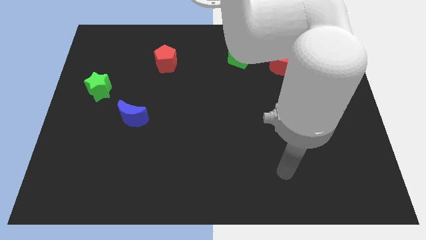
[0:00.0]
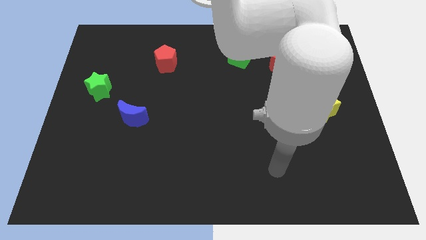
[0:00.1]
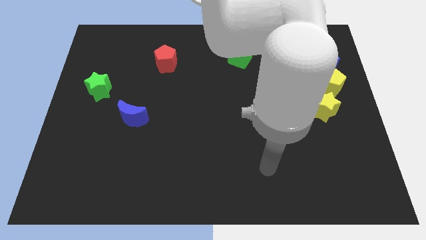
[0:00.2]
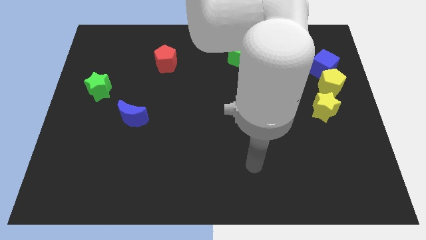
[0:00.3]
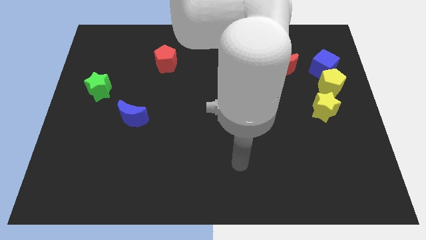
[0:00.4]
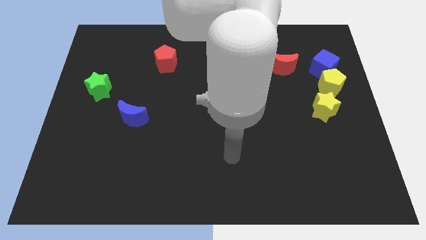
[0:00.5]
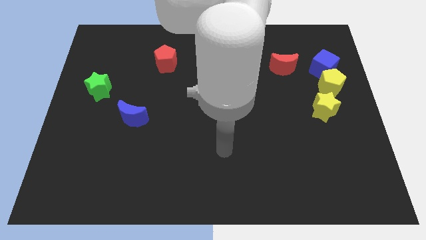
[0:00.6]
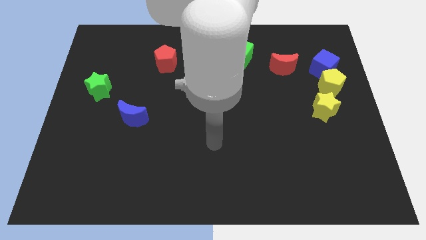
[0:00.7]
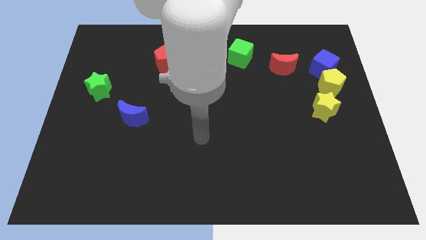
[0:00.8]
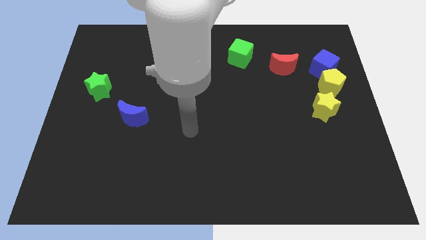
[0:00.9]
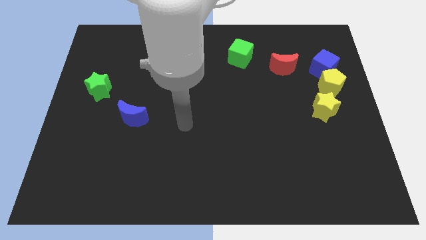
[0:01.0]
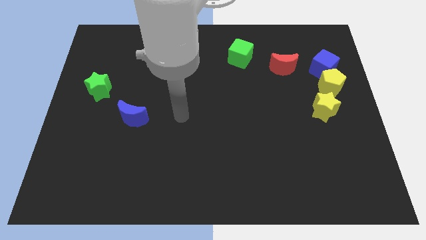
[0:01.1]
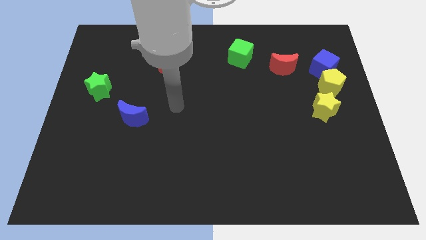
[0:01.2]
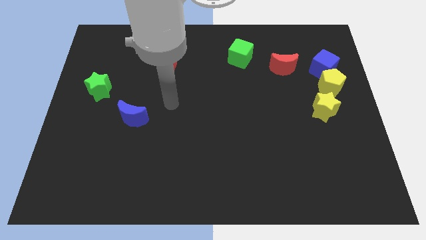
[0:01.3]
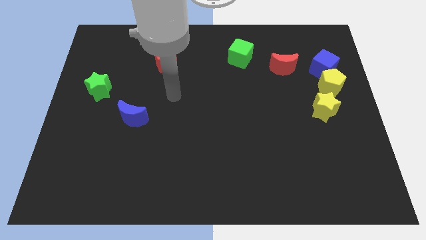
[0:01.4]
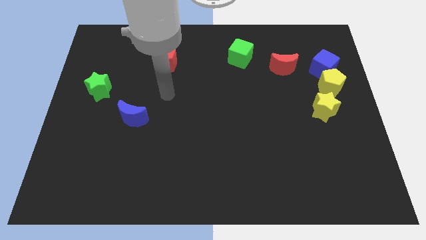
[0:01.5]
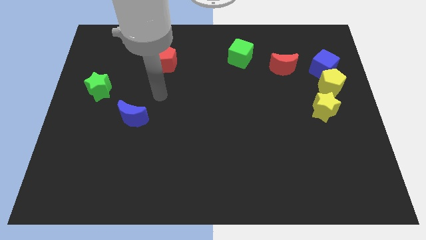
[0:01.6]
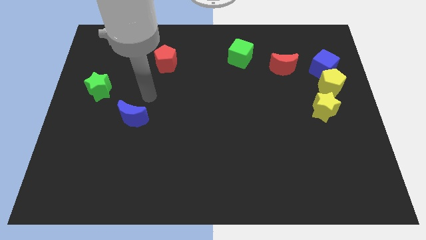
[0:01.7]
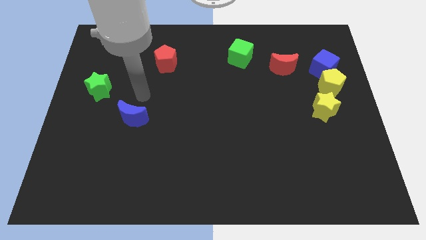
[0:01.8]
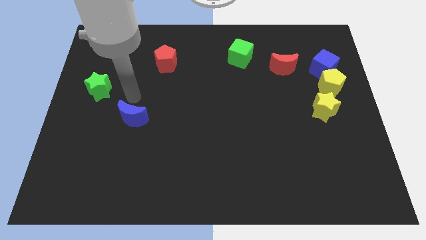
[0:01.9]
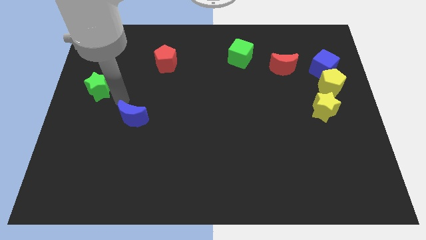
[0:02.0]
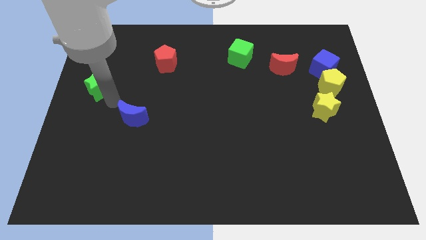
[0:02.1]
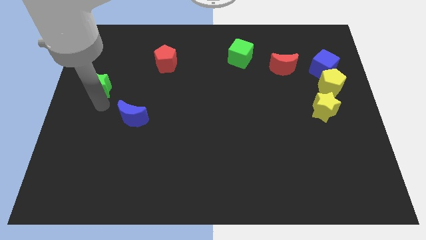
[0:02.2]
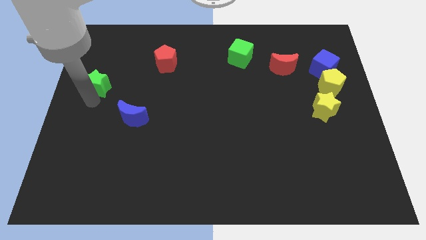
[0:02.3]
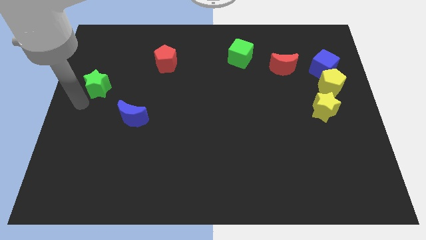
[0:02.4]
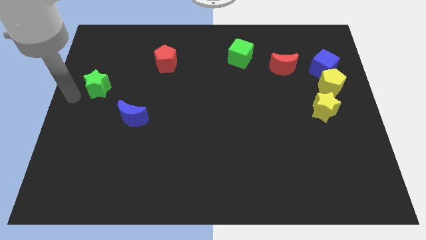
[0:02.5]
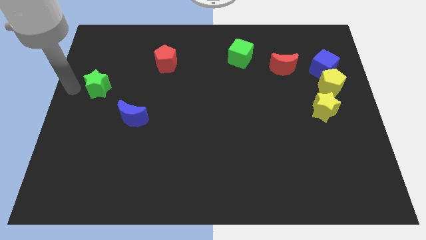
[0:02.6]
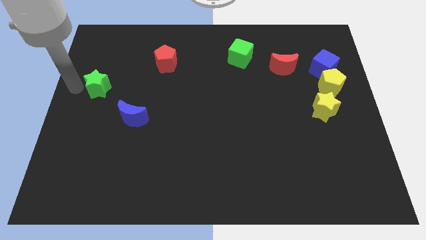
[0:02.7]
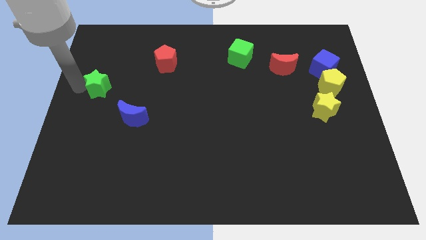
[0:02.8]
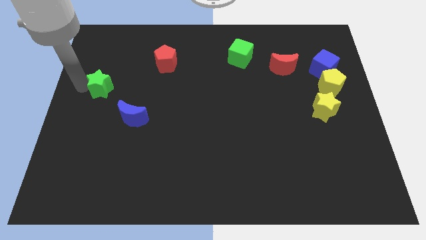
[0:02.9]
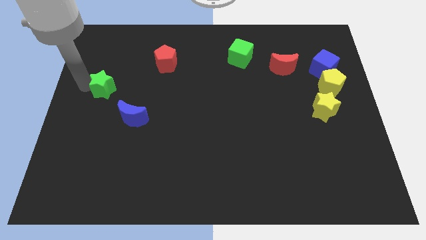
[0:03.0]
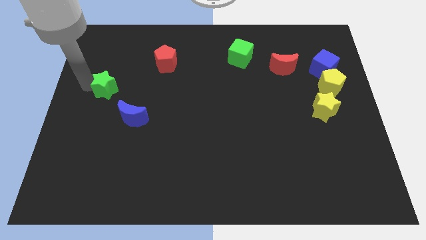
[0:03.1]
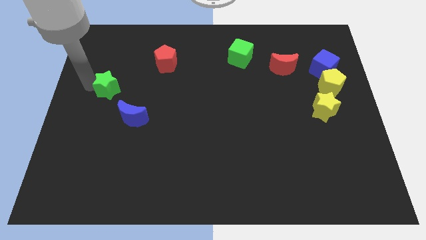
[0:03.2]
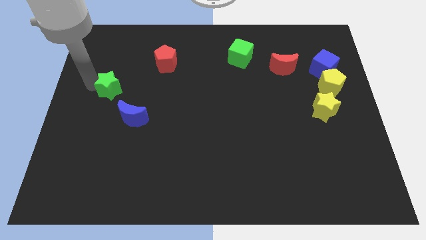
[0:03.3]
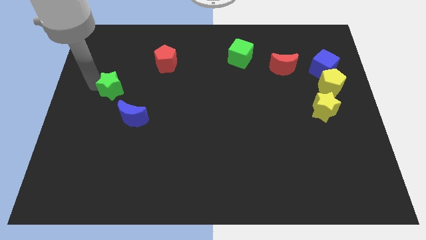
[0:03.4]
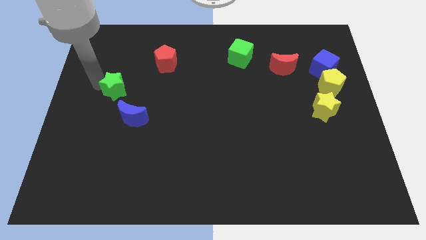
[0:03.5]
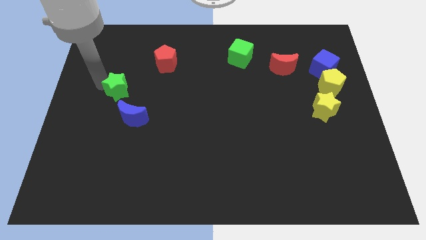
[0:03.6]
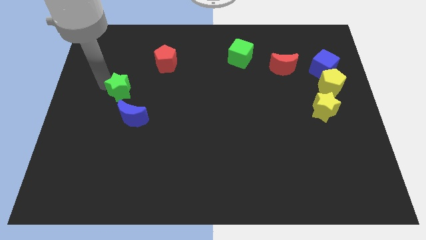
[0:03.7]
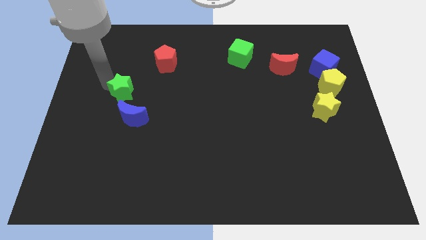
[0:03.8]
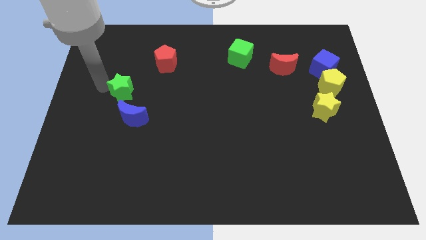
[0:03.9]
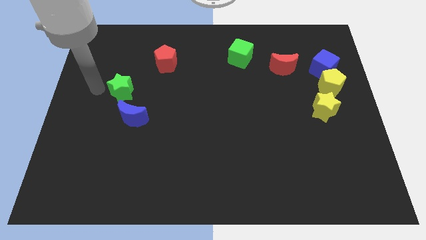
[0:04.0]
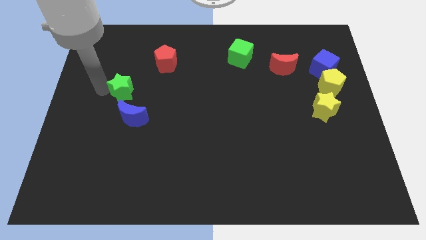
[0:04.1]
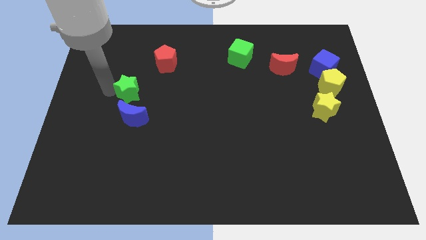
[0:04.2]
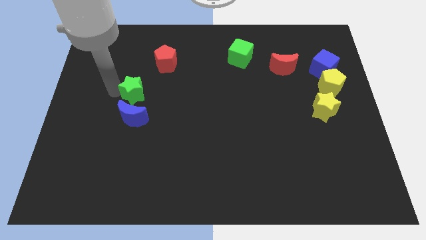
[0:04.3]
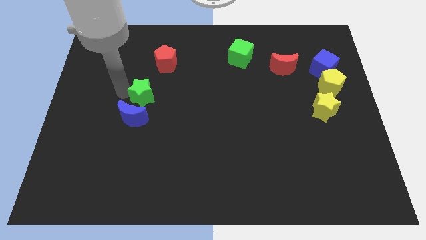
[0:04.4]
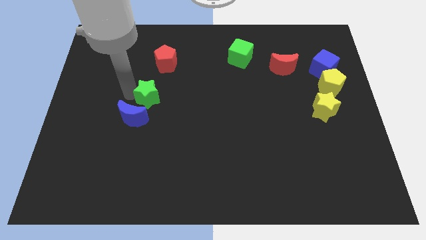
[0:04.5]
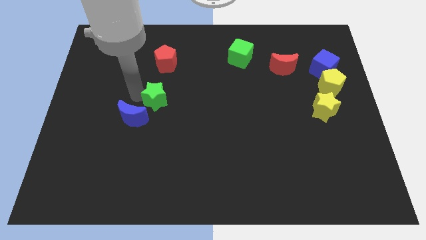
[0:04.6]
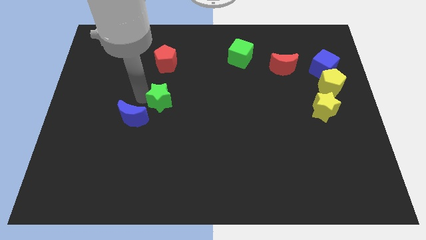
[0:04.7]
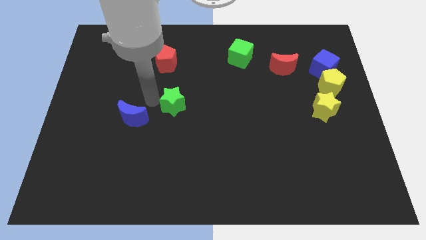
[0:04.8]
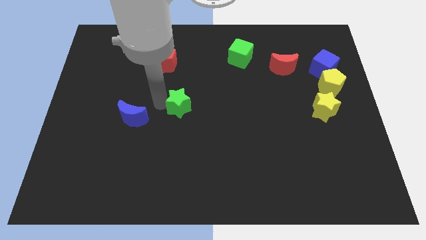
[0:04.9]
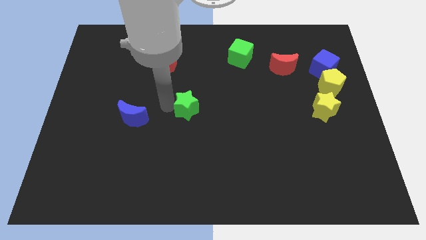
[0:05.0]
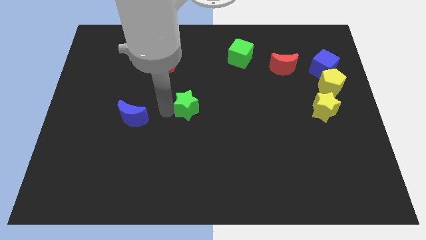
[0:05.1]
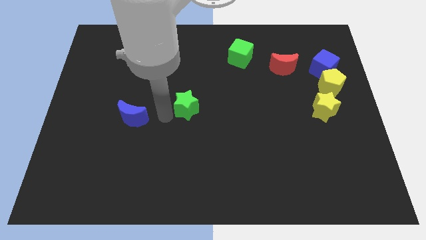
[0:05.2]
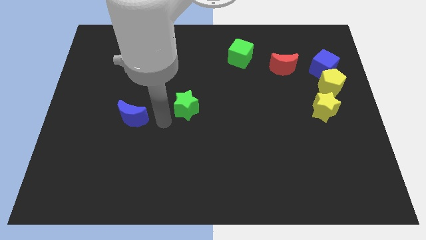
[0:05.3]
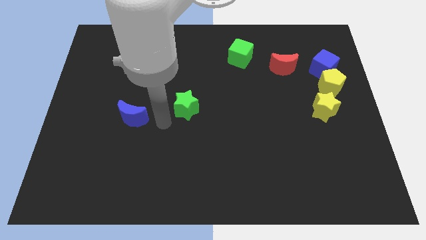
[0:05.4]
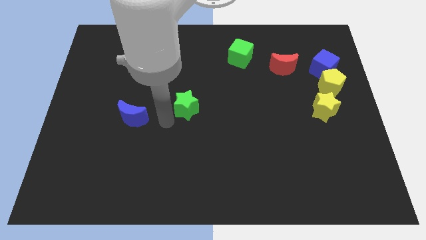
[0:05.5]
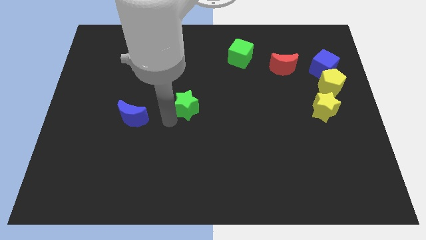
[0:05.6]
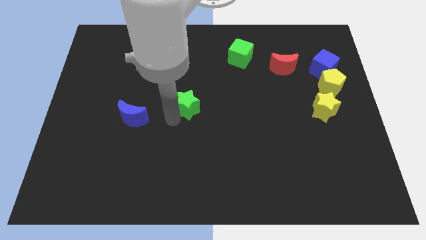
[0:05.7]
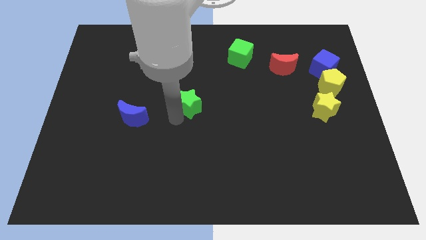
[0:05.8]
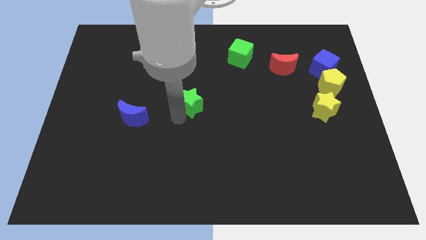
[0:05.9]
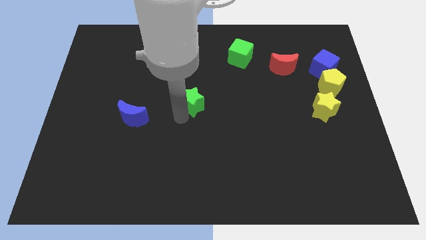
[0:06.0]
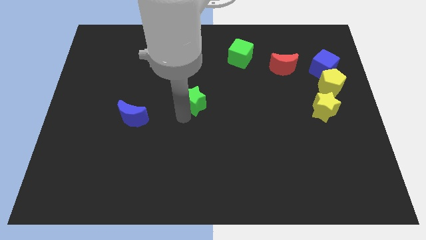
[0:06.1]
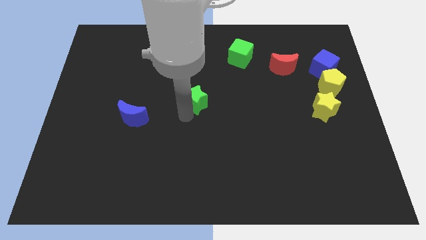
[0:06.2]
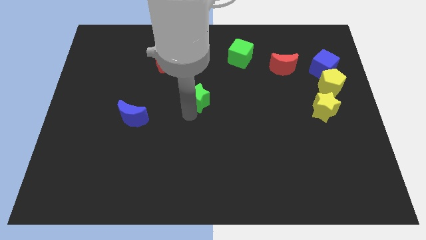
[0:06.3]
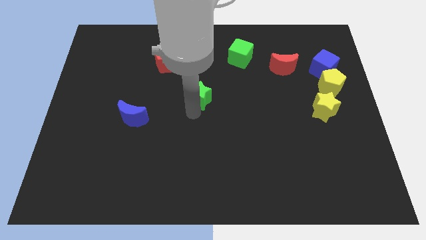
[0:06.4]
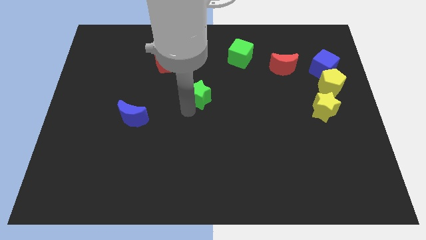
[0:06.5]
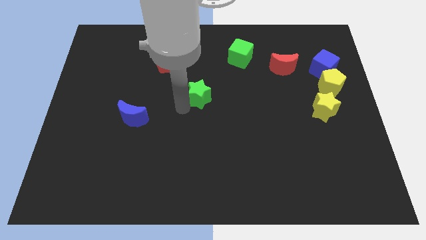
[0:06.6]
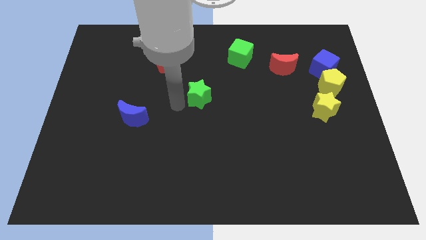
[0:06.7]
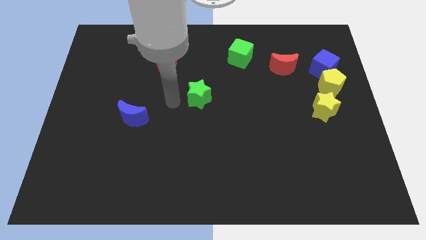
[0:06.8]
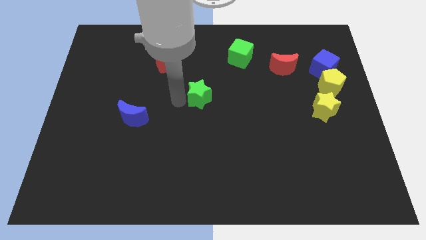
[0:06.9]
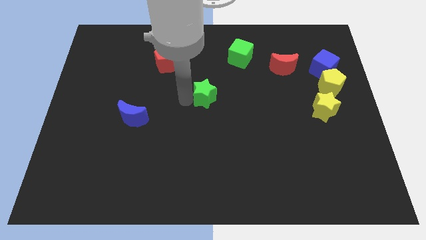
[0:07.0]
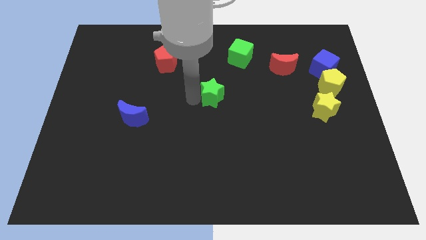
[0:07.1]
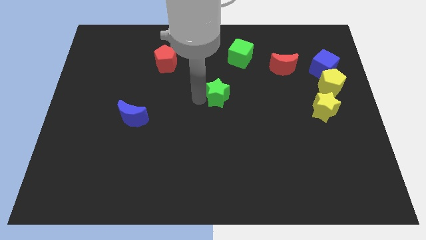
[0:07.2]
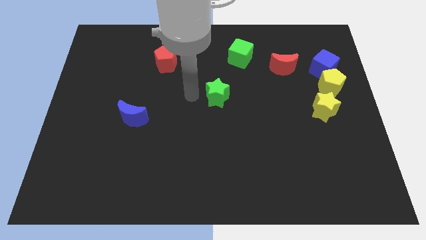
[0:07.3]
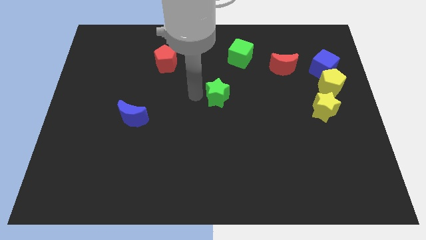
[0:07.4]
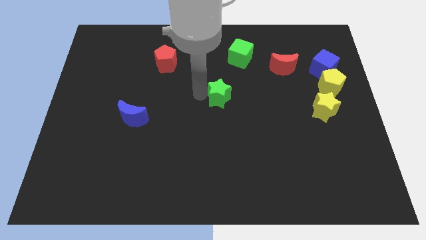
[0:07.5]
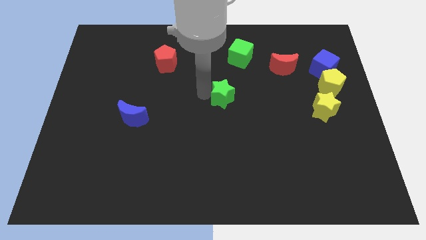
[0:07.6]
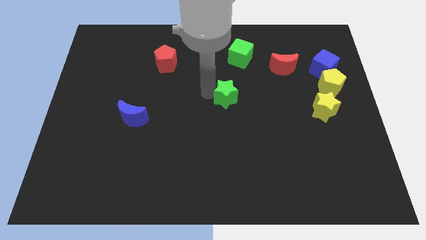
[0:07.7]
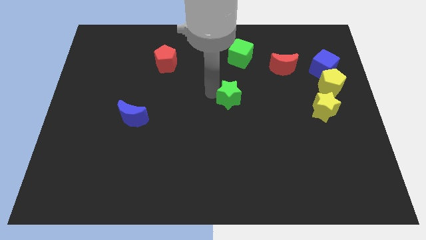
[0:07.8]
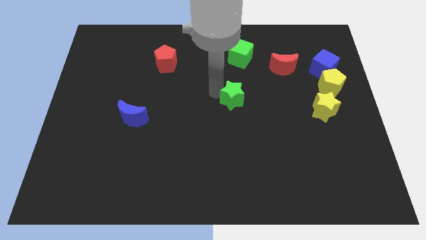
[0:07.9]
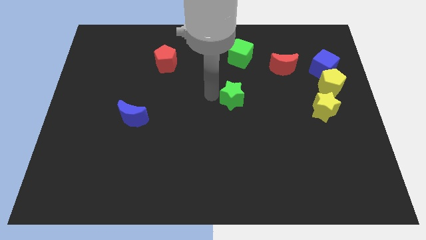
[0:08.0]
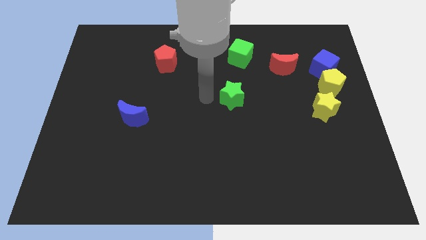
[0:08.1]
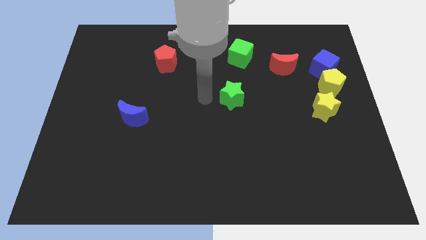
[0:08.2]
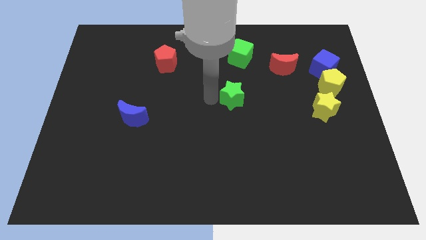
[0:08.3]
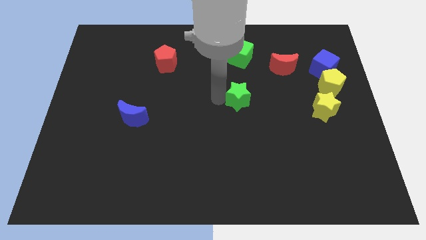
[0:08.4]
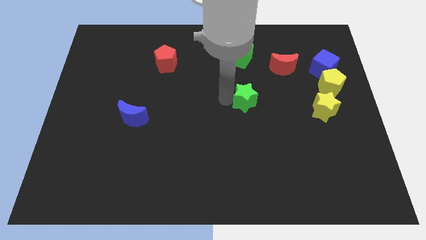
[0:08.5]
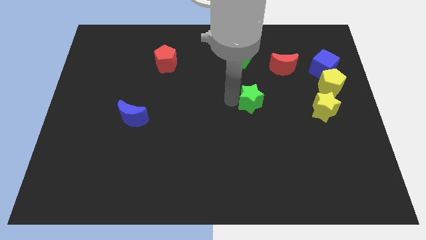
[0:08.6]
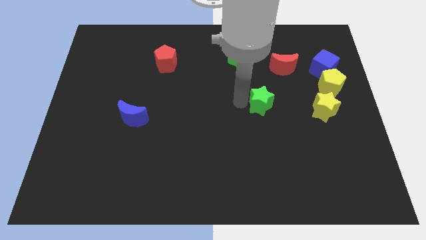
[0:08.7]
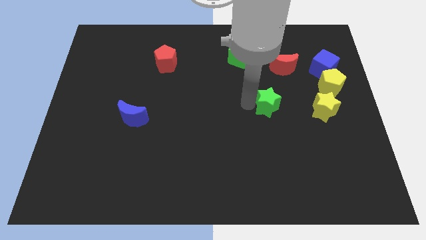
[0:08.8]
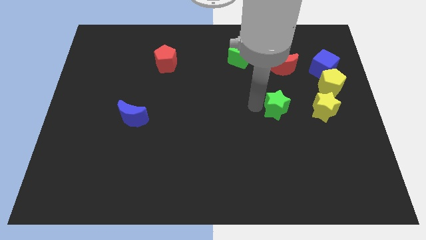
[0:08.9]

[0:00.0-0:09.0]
move the green star to the bottom of the red moon
